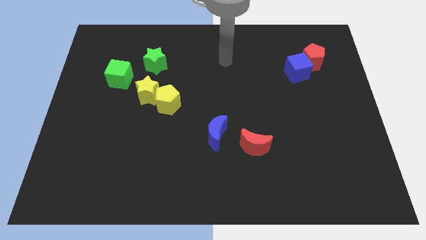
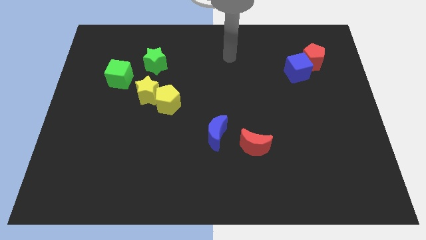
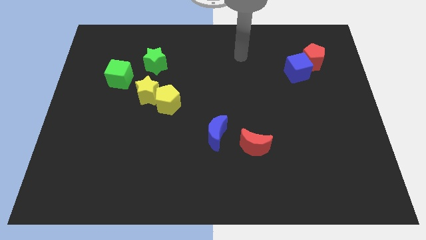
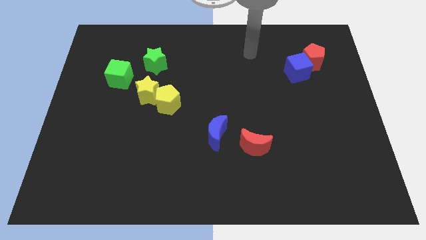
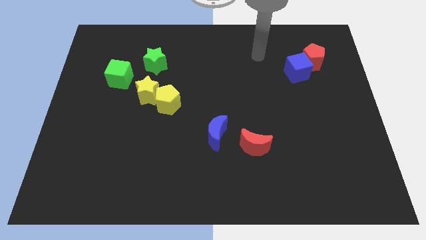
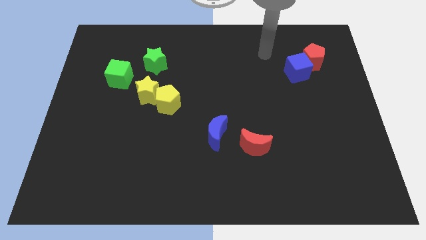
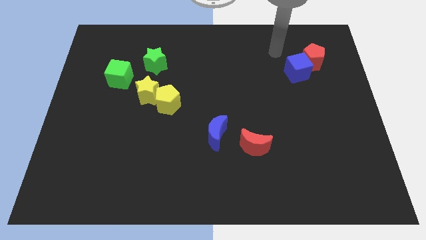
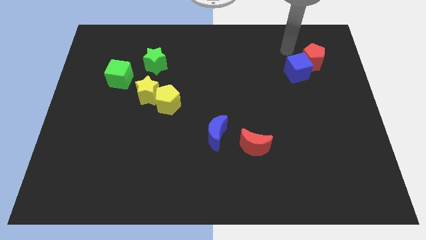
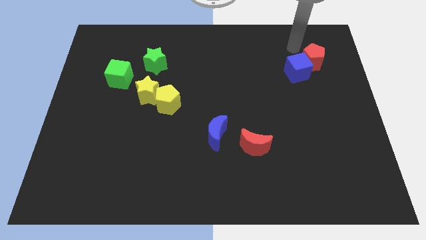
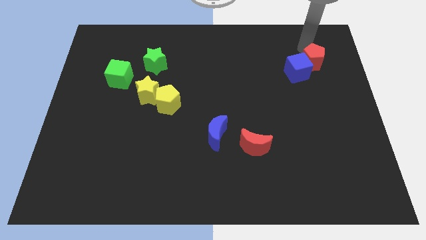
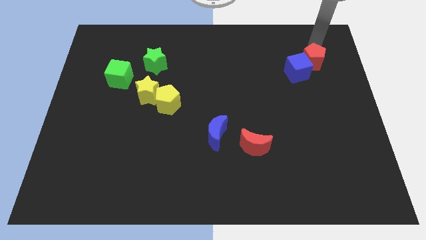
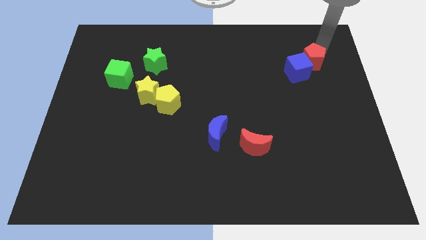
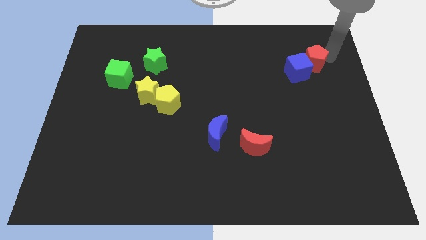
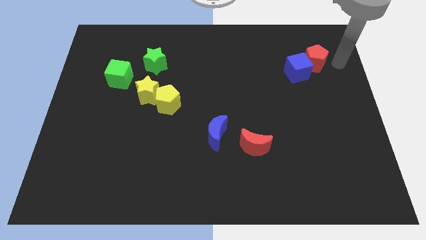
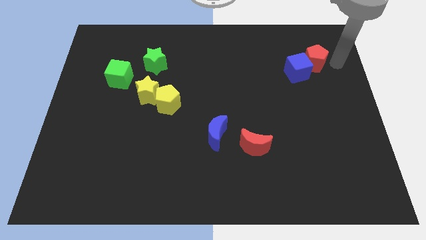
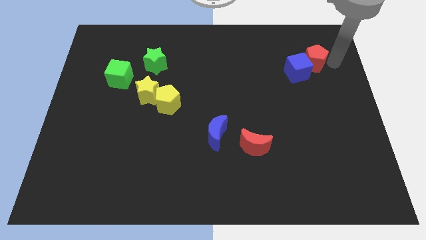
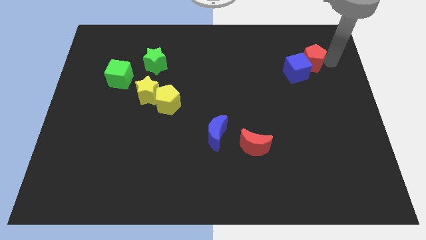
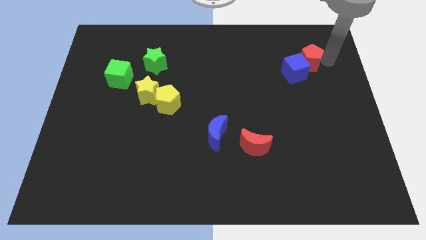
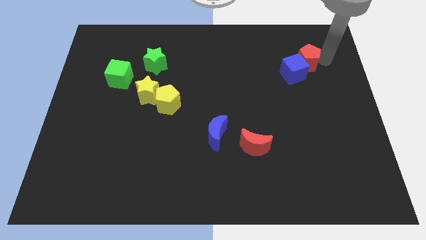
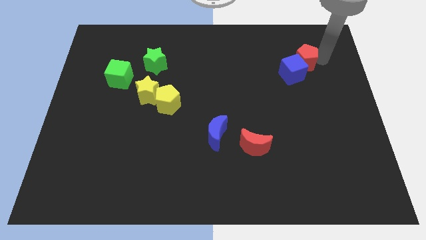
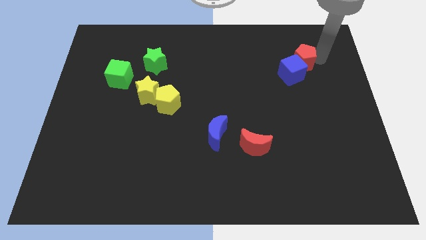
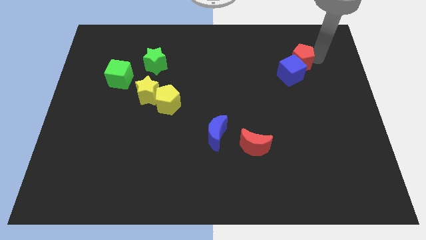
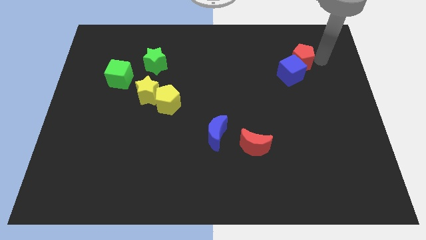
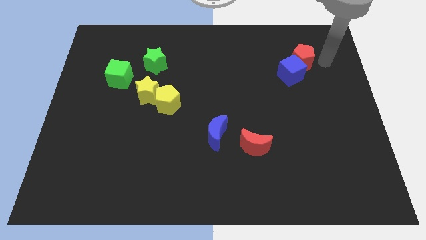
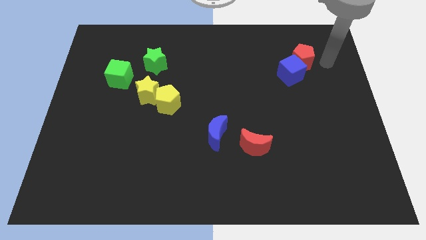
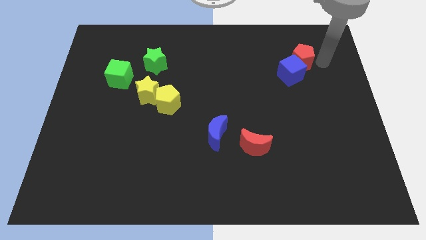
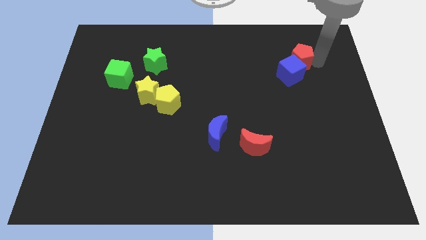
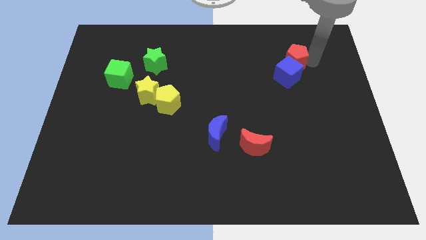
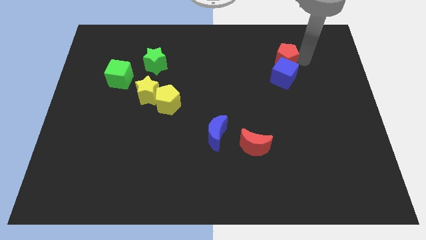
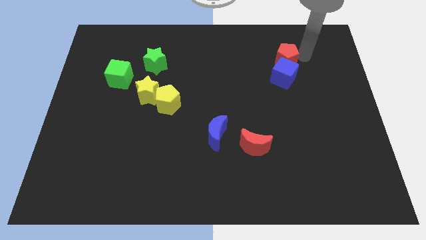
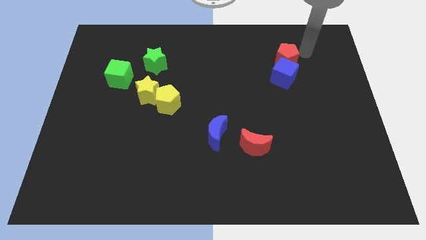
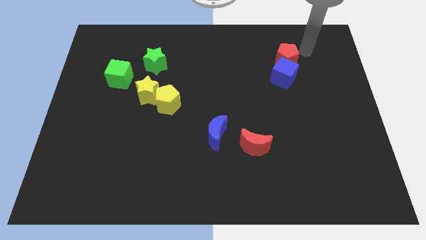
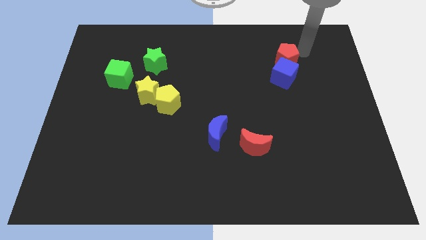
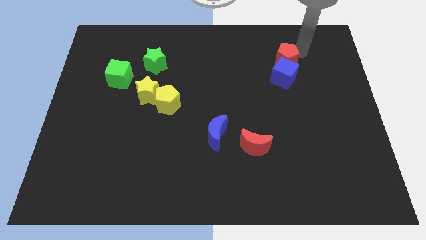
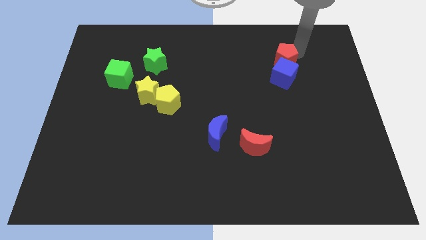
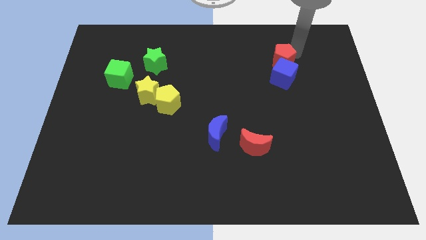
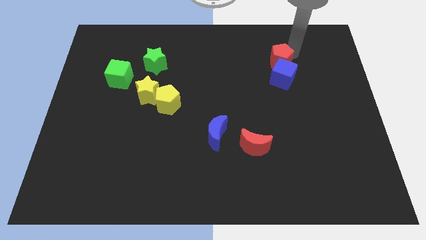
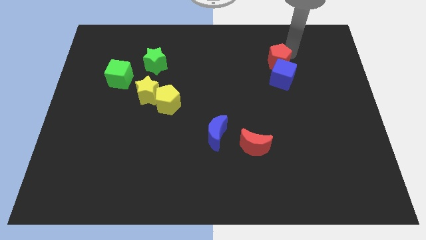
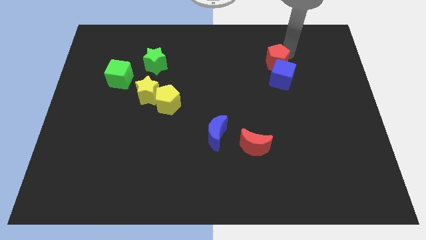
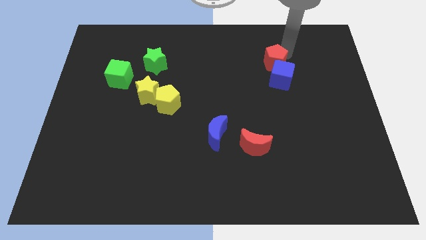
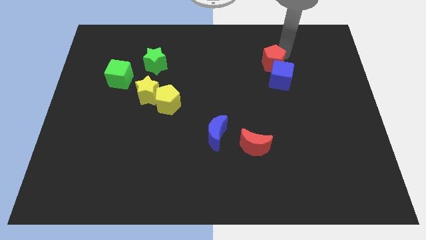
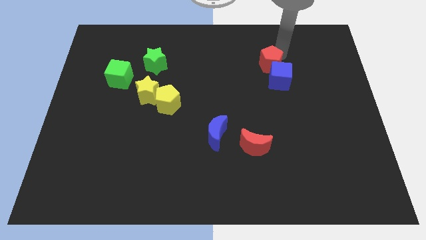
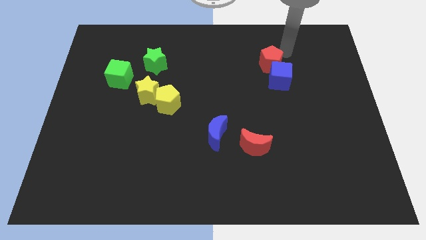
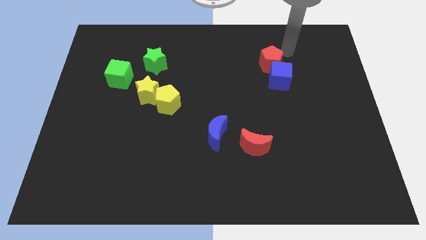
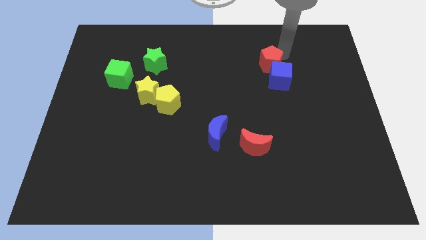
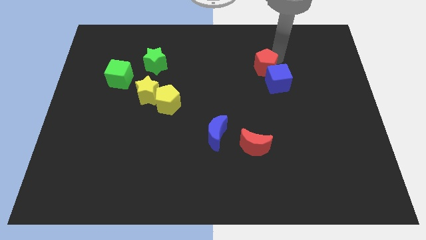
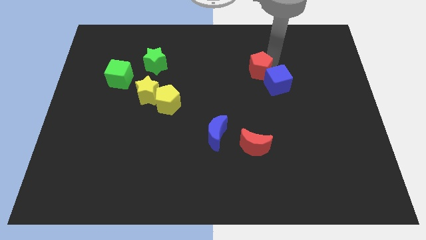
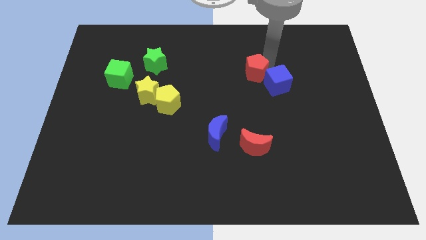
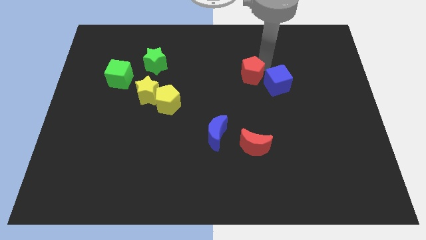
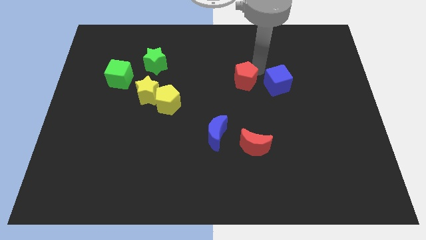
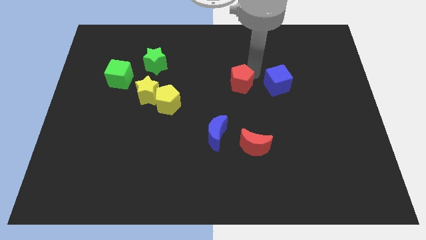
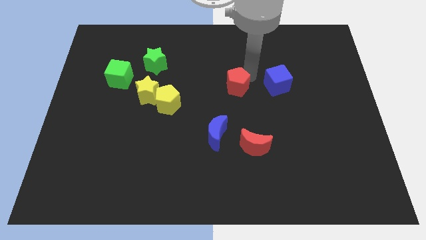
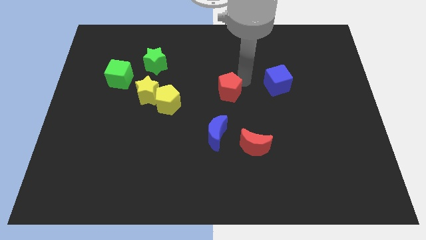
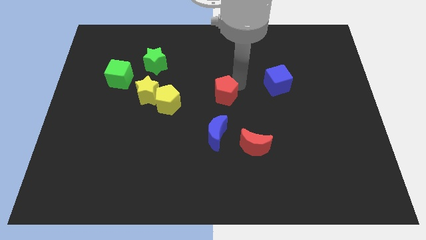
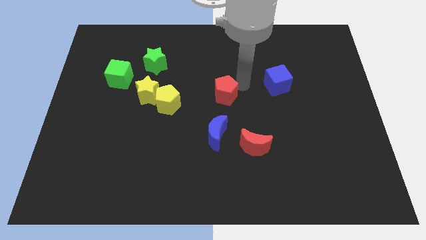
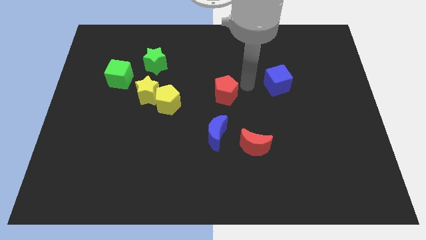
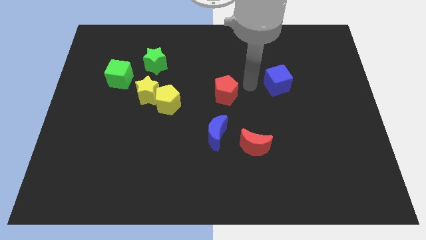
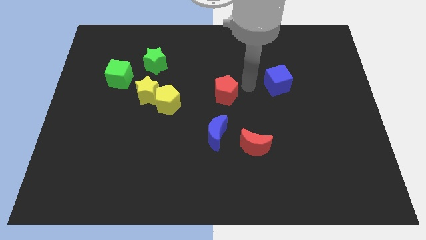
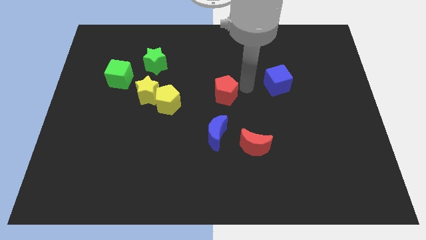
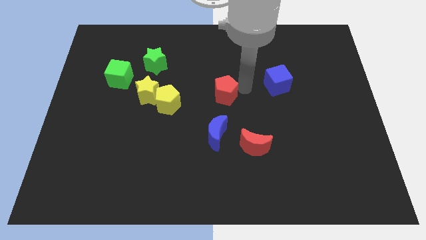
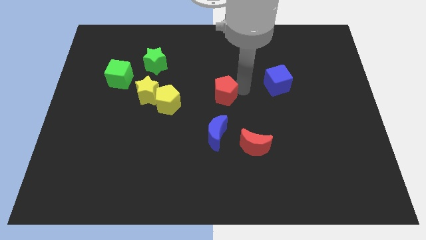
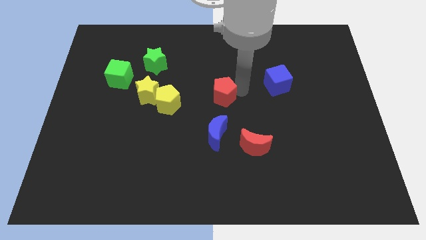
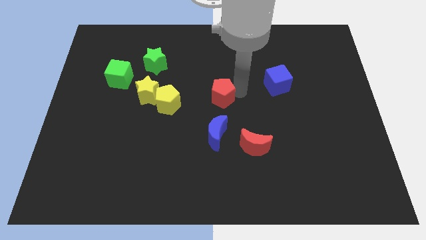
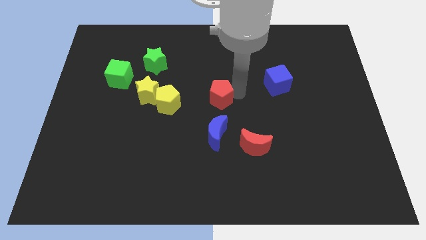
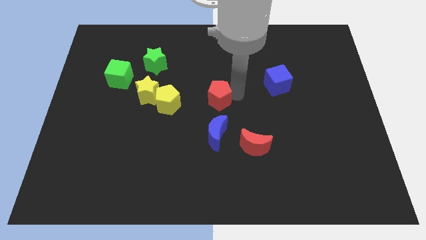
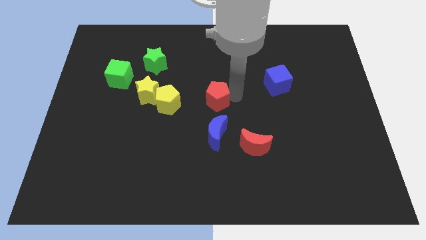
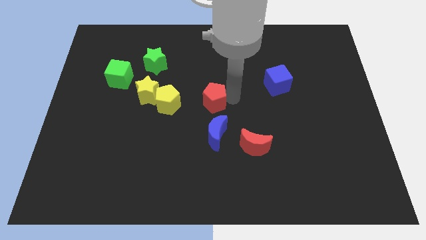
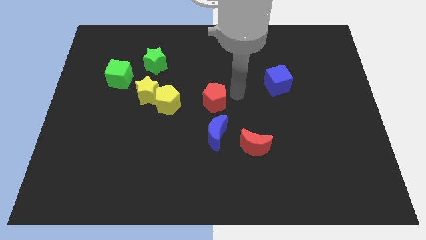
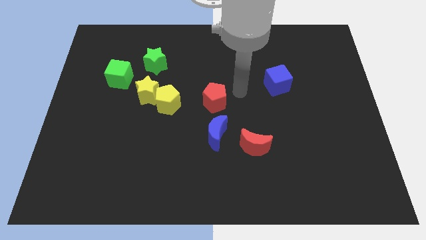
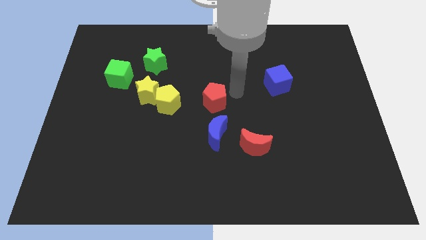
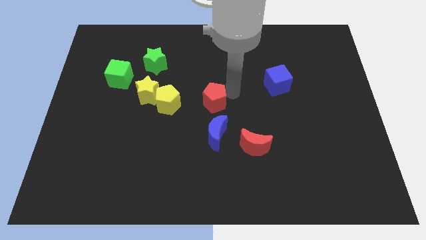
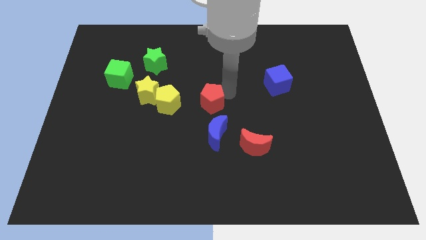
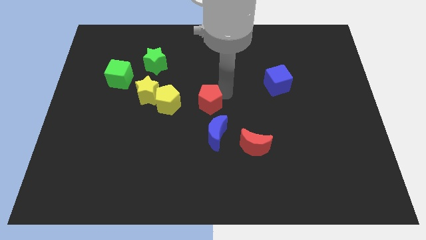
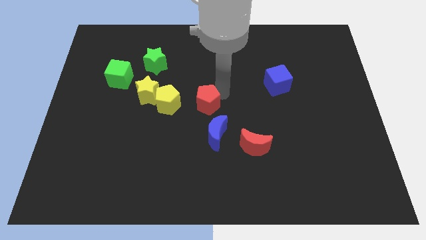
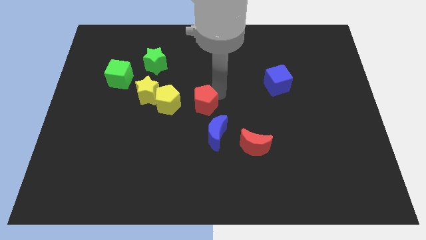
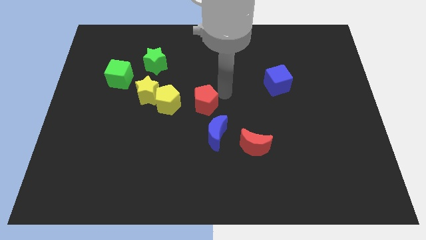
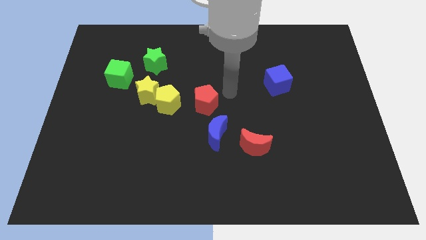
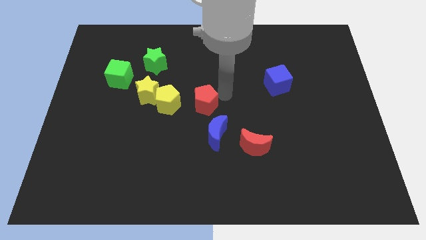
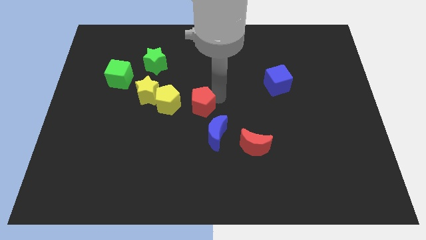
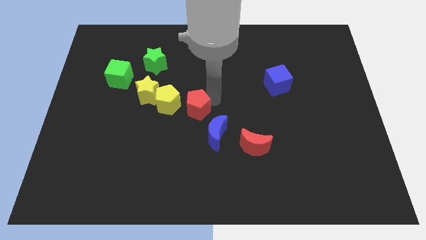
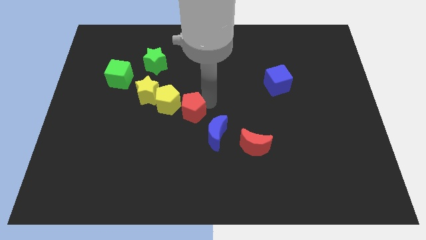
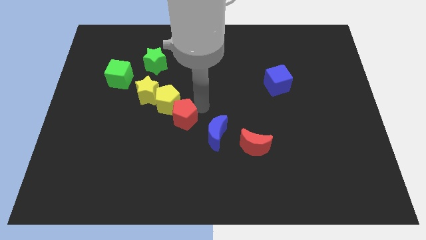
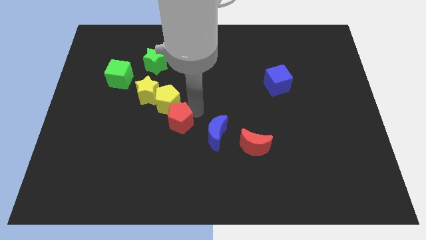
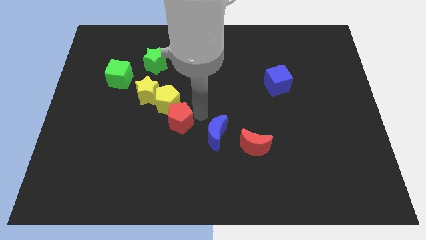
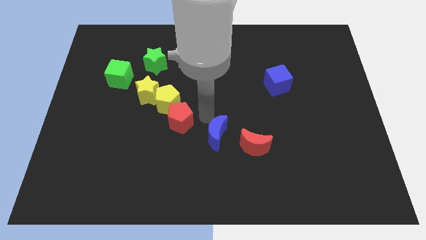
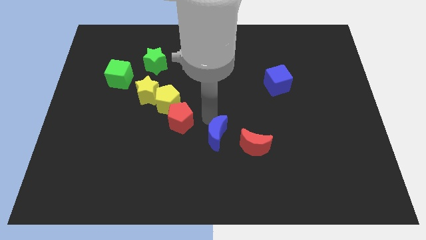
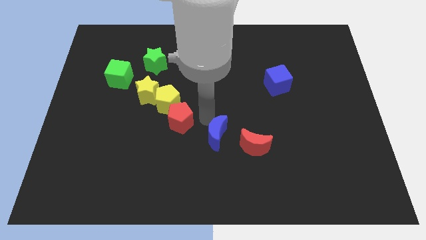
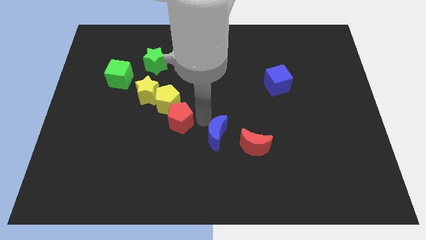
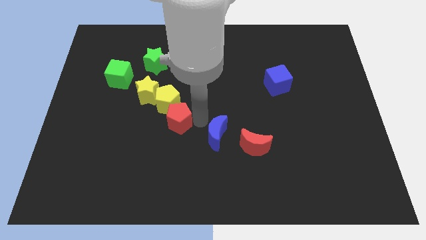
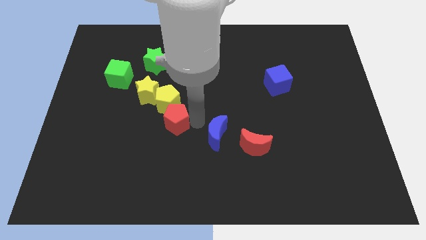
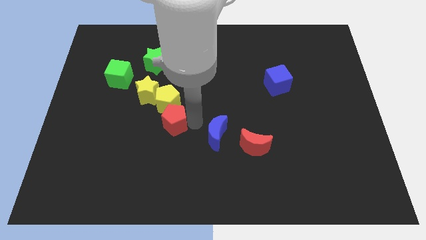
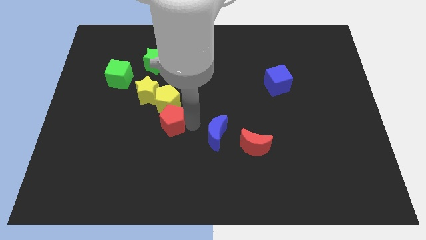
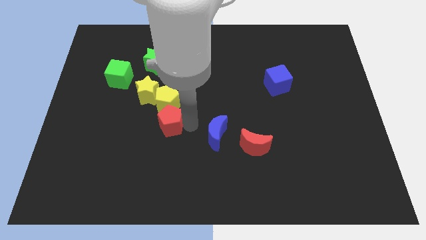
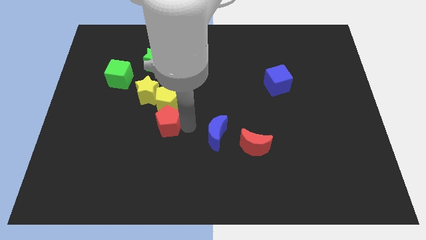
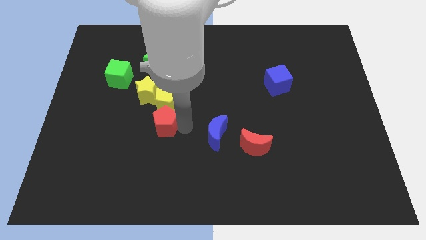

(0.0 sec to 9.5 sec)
slide the red pentagon below the yellow star
